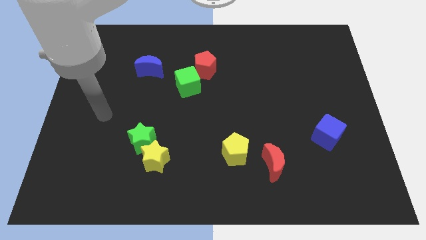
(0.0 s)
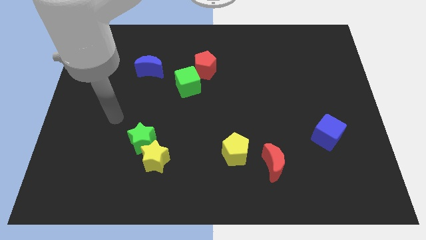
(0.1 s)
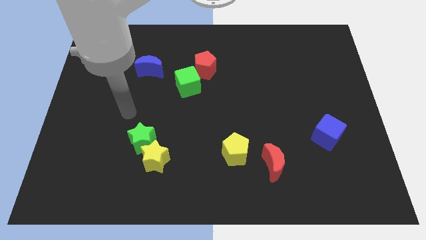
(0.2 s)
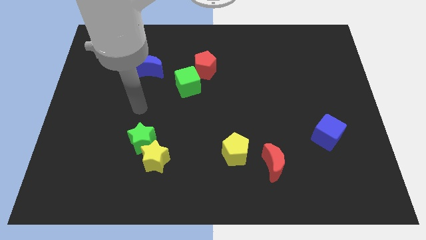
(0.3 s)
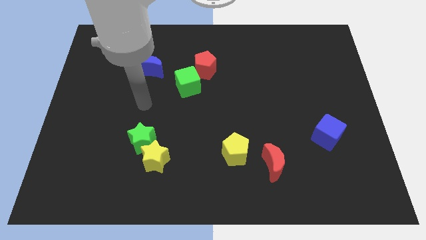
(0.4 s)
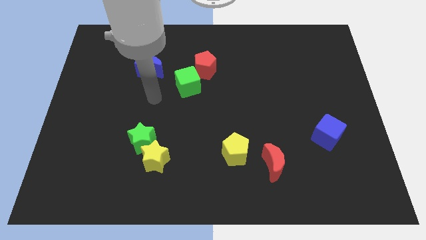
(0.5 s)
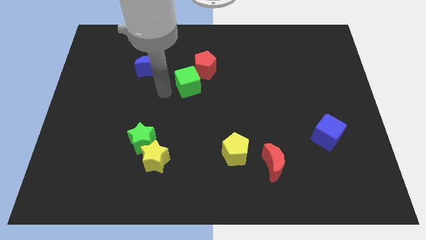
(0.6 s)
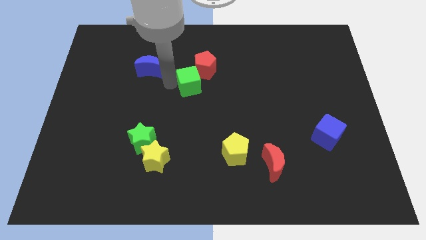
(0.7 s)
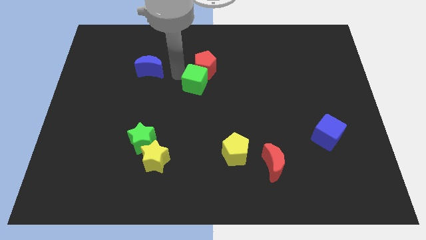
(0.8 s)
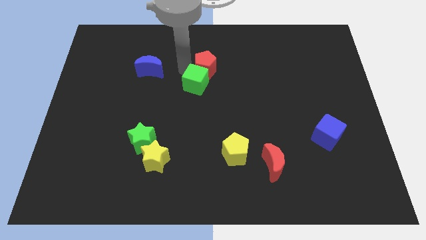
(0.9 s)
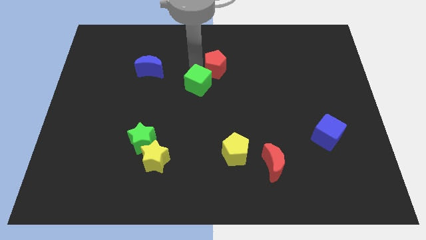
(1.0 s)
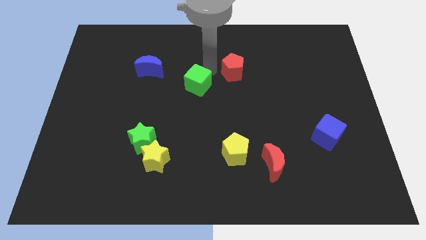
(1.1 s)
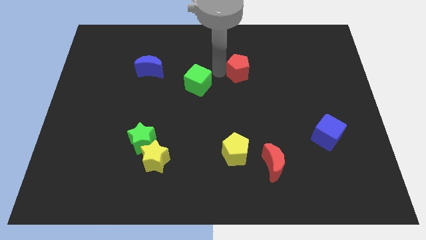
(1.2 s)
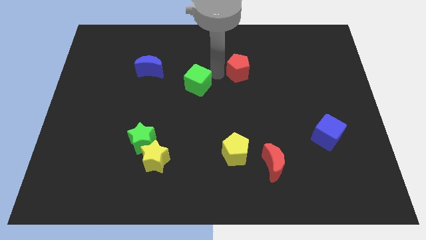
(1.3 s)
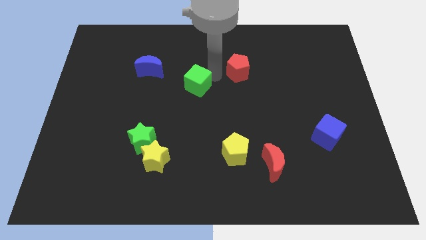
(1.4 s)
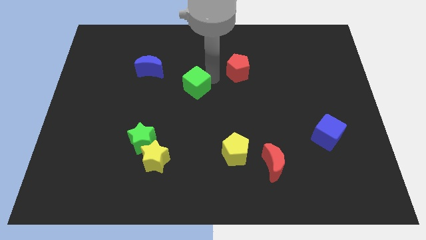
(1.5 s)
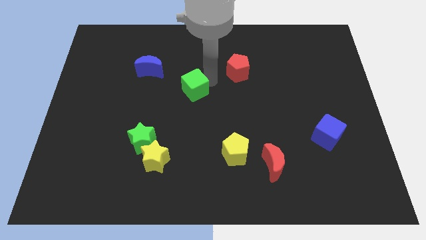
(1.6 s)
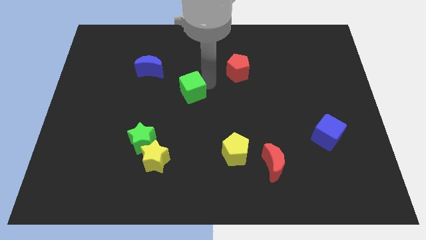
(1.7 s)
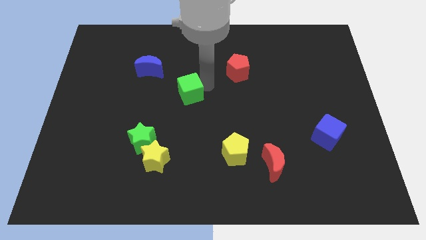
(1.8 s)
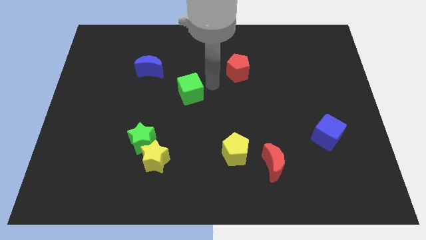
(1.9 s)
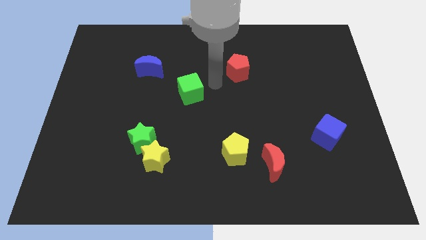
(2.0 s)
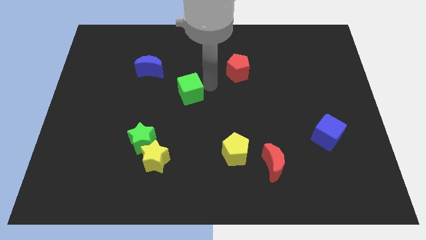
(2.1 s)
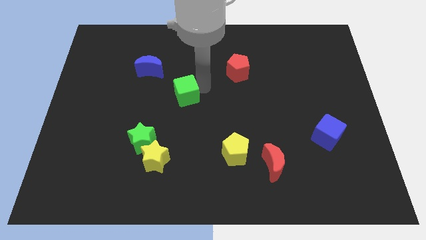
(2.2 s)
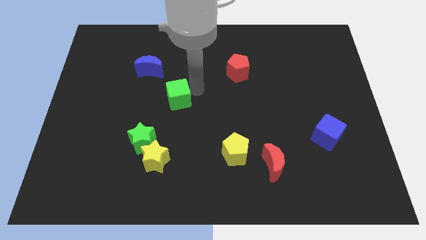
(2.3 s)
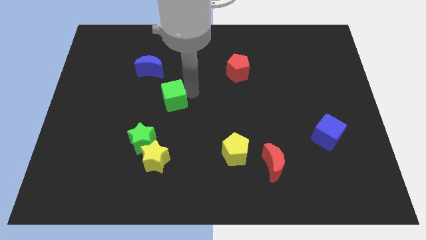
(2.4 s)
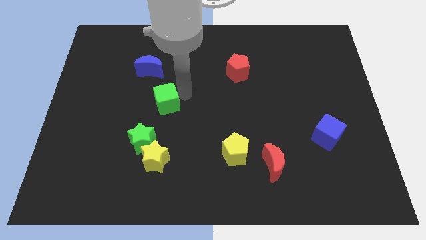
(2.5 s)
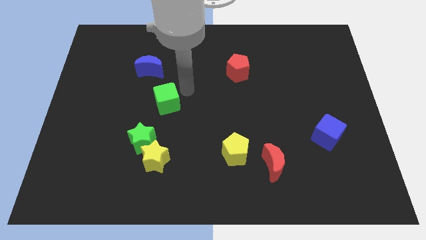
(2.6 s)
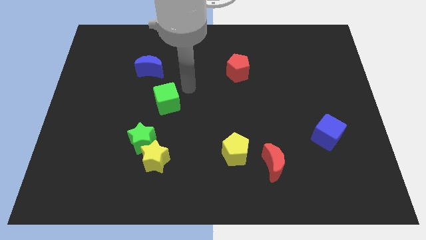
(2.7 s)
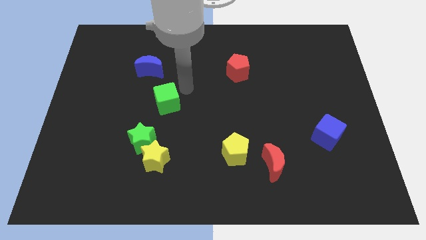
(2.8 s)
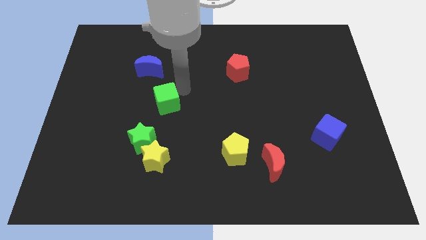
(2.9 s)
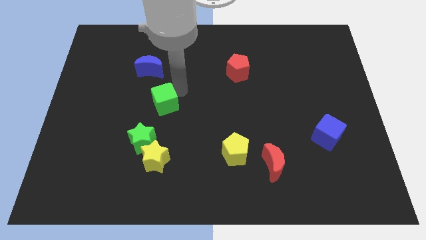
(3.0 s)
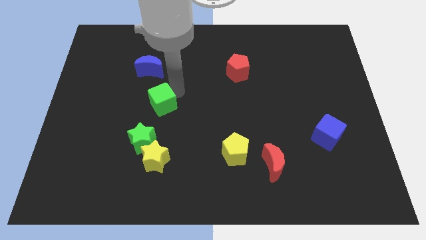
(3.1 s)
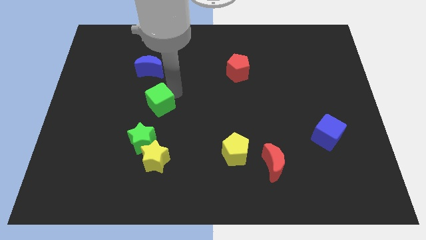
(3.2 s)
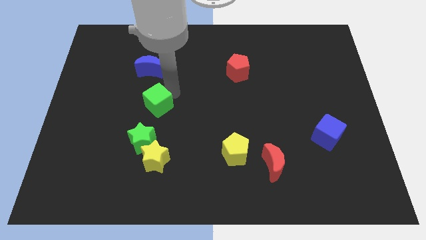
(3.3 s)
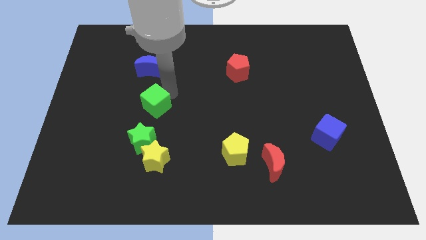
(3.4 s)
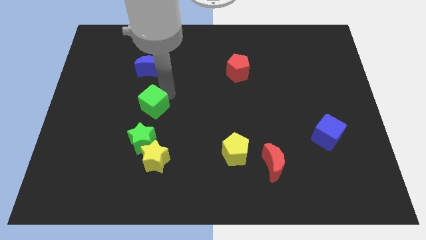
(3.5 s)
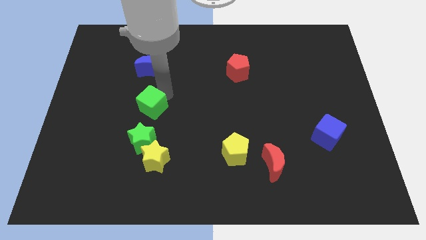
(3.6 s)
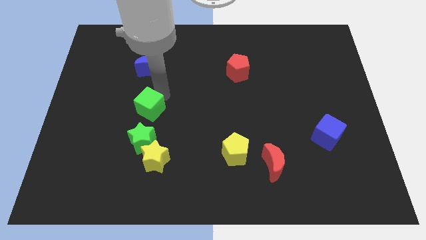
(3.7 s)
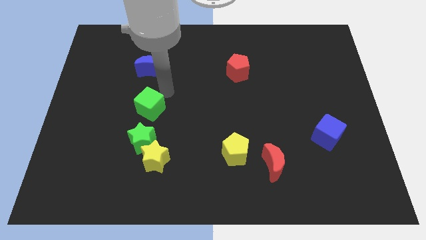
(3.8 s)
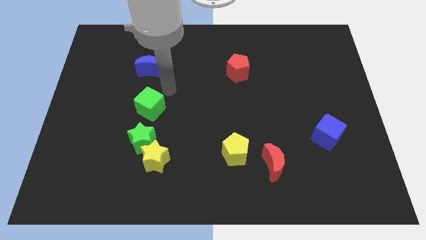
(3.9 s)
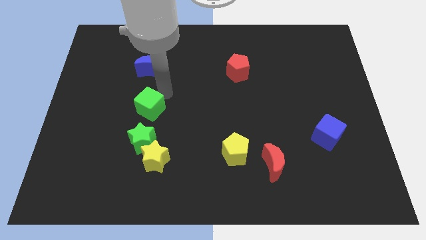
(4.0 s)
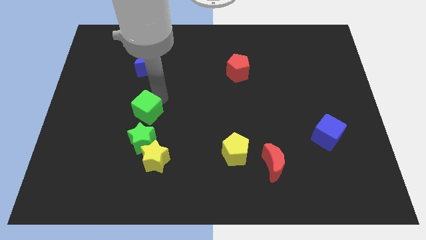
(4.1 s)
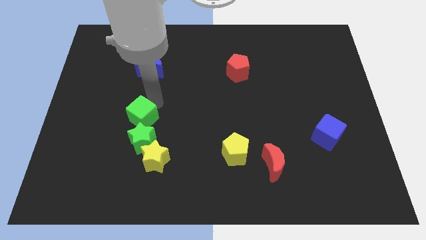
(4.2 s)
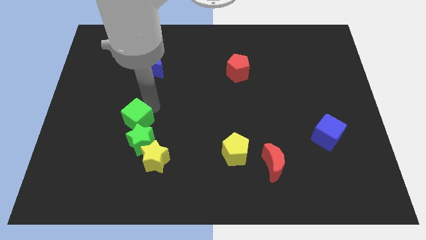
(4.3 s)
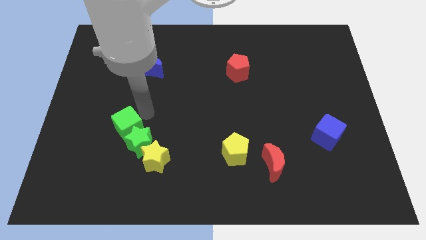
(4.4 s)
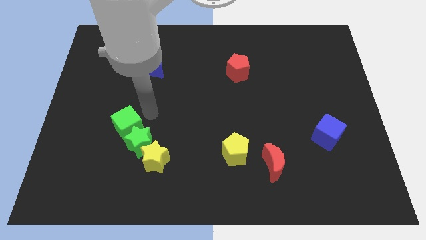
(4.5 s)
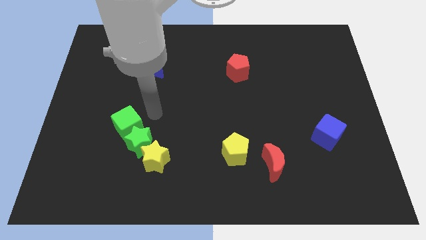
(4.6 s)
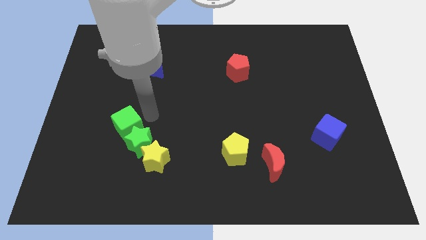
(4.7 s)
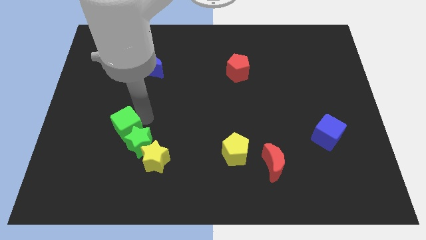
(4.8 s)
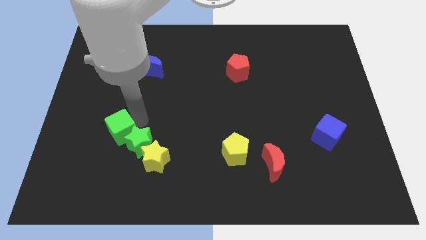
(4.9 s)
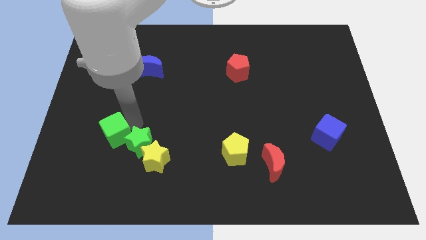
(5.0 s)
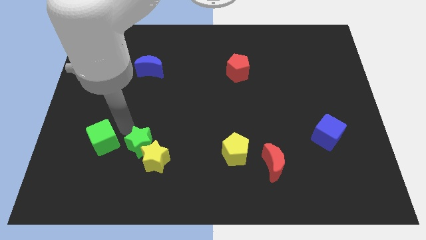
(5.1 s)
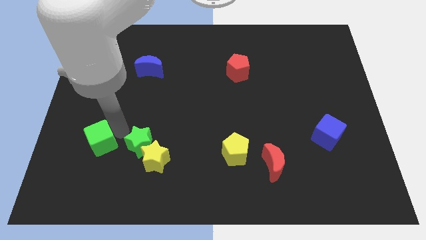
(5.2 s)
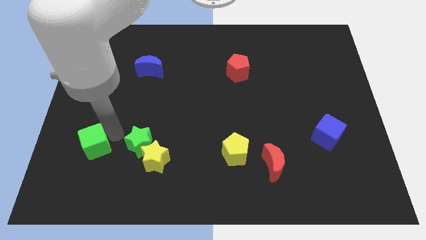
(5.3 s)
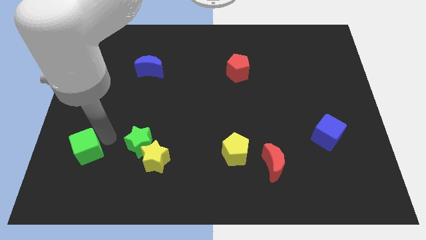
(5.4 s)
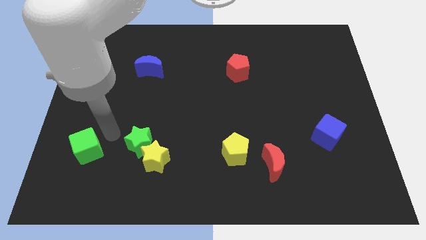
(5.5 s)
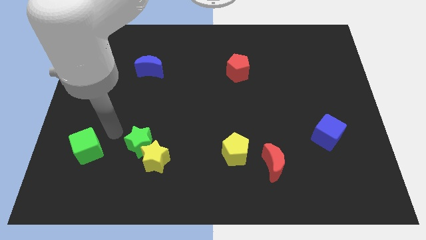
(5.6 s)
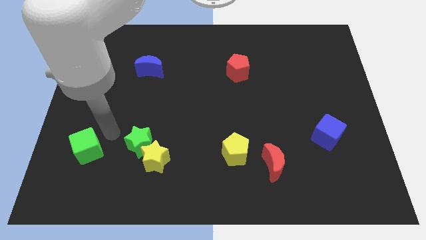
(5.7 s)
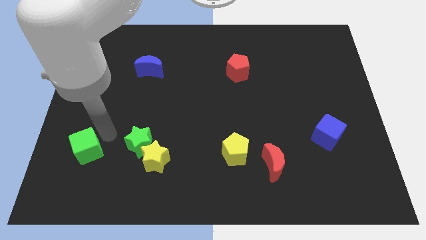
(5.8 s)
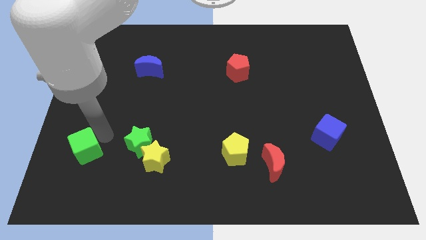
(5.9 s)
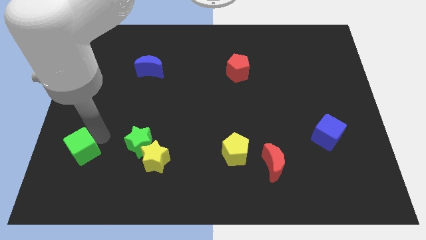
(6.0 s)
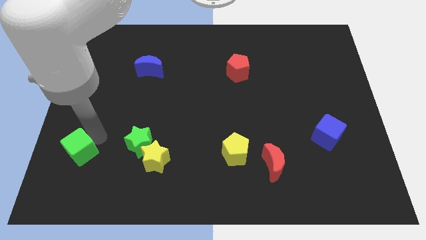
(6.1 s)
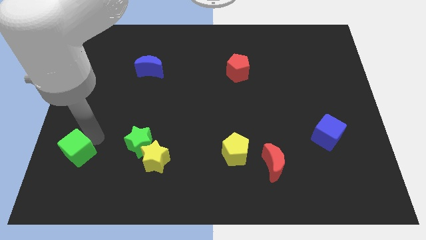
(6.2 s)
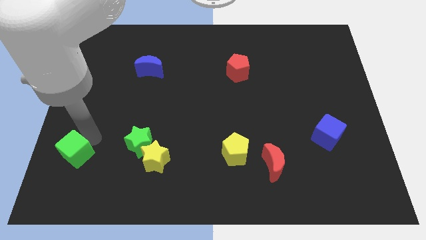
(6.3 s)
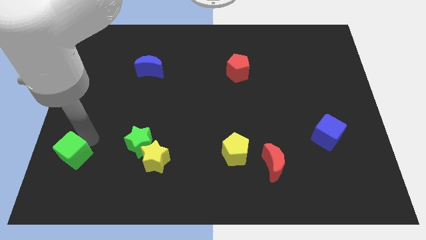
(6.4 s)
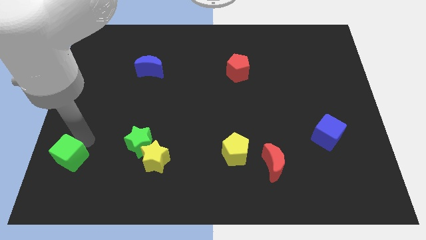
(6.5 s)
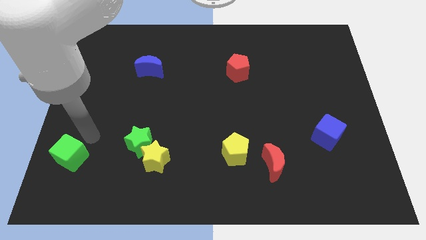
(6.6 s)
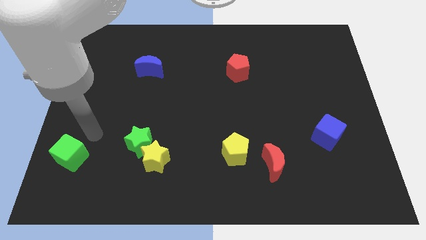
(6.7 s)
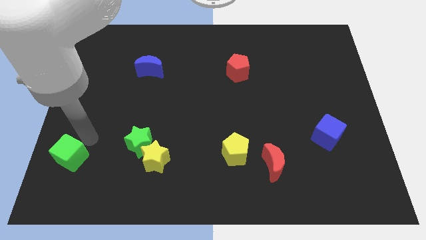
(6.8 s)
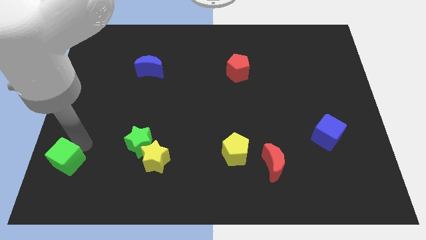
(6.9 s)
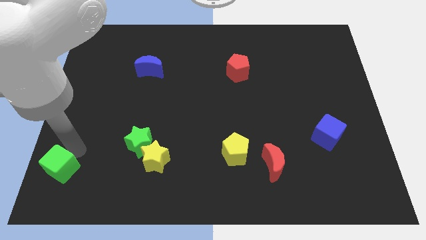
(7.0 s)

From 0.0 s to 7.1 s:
put the green cube to the bottom left of the board
